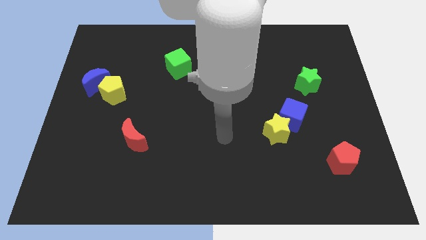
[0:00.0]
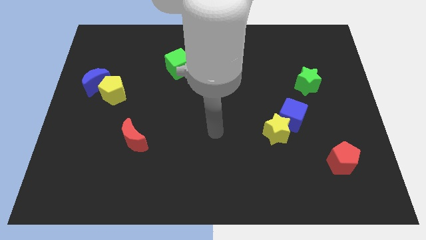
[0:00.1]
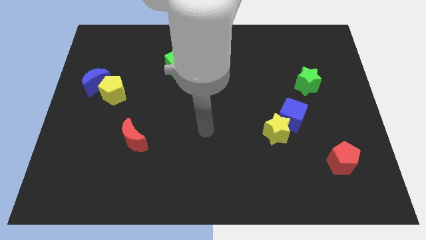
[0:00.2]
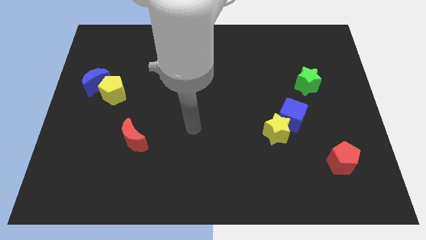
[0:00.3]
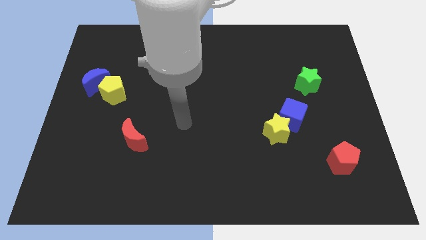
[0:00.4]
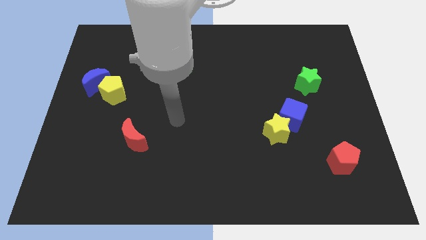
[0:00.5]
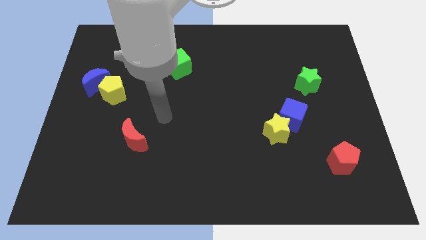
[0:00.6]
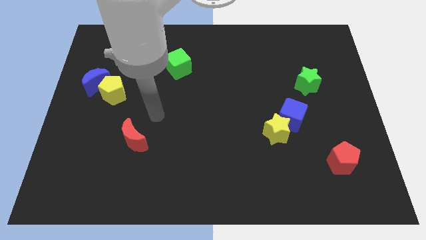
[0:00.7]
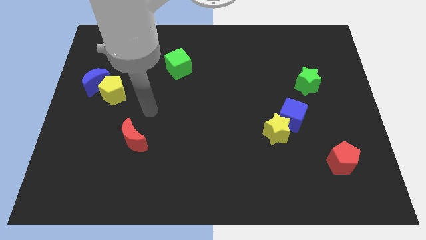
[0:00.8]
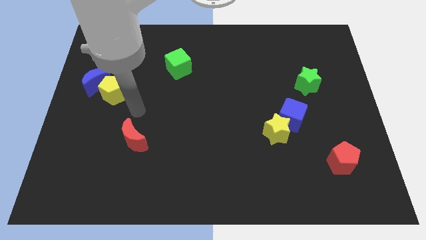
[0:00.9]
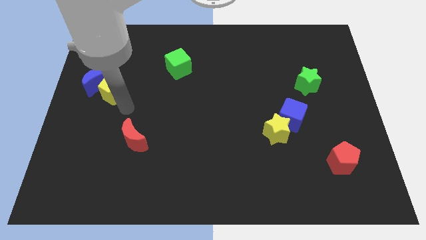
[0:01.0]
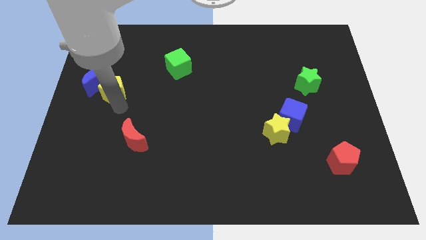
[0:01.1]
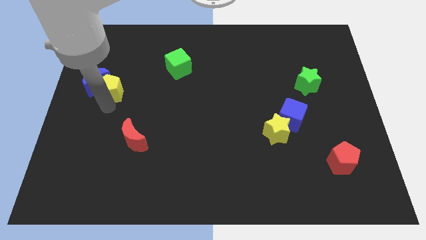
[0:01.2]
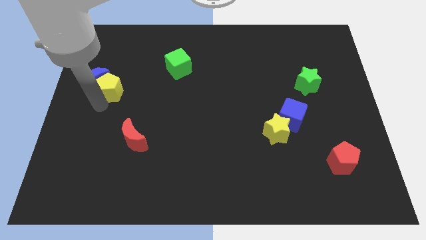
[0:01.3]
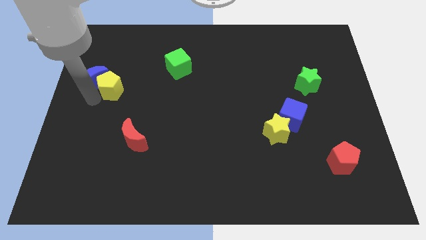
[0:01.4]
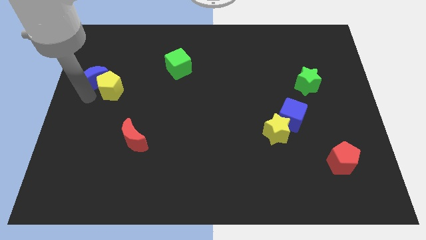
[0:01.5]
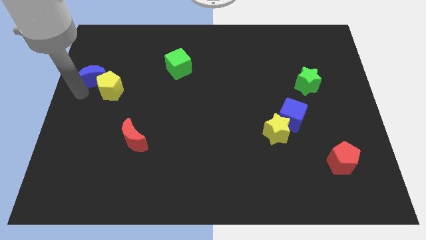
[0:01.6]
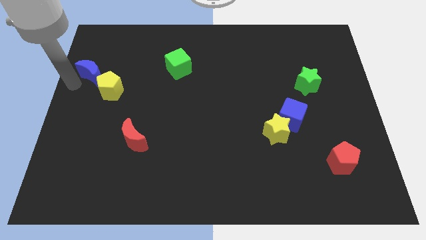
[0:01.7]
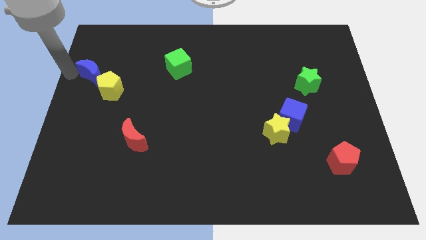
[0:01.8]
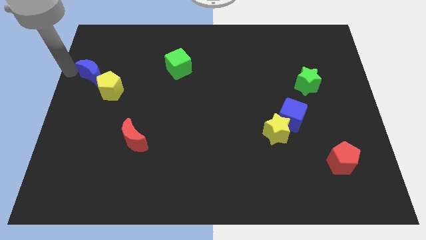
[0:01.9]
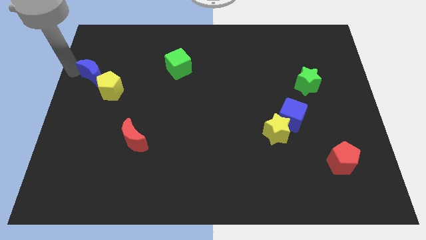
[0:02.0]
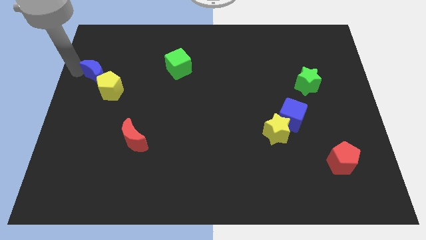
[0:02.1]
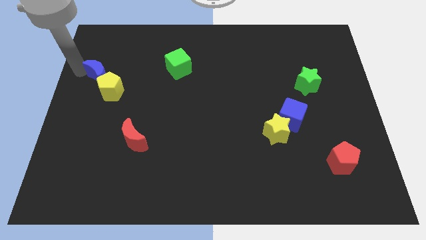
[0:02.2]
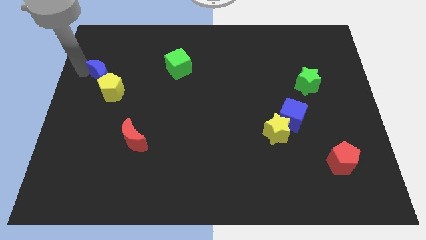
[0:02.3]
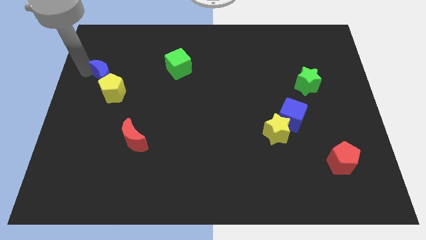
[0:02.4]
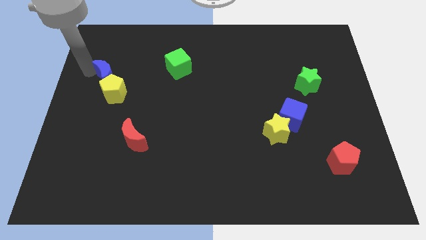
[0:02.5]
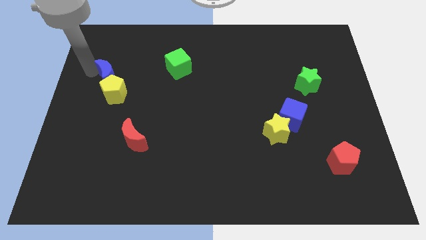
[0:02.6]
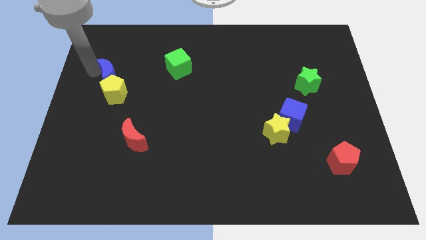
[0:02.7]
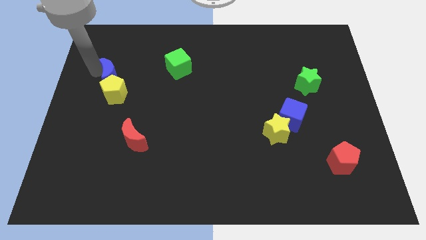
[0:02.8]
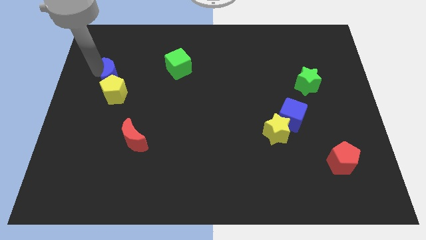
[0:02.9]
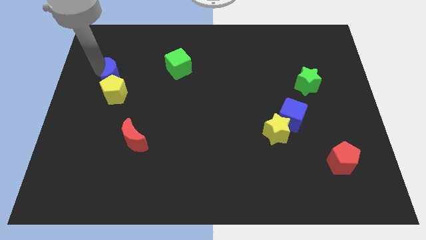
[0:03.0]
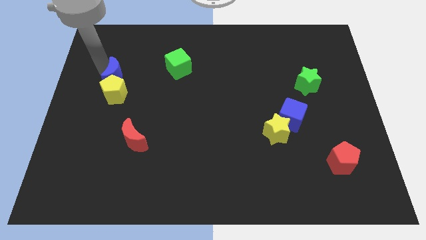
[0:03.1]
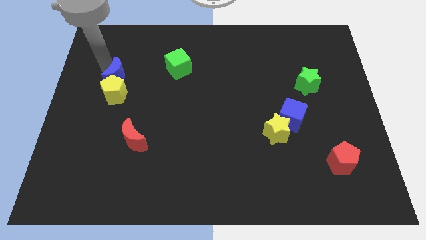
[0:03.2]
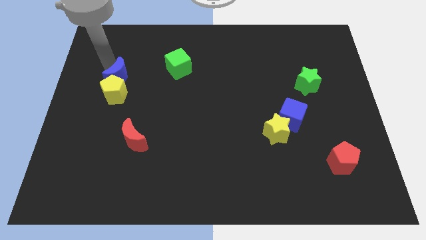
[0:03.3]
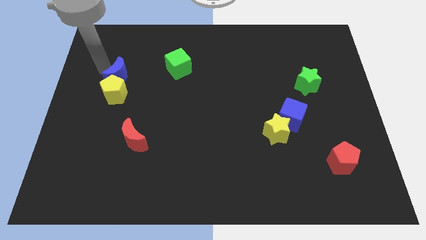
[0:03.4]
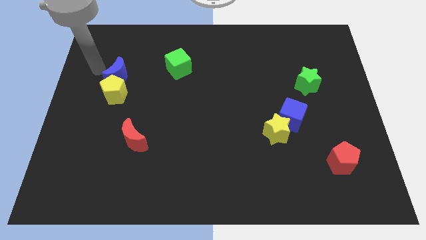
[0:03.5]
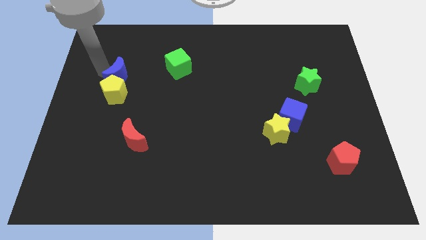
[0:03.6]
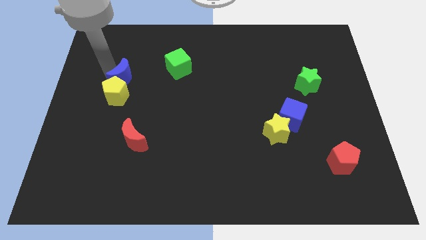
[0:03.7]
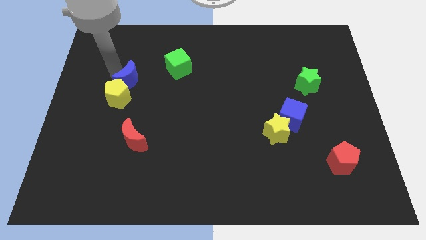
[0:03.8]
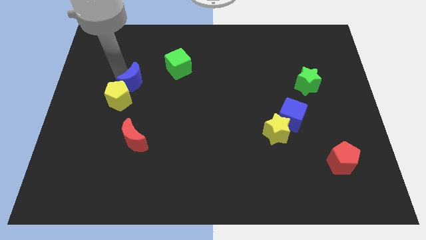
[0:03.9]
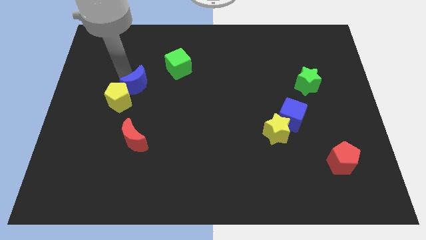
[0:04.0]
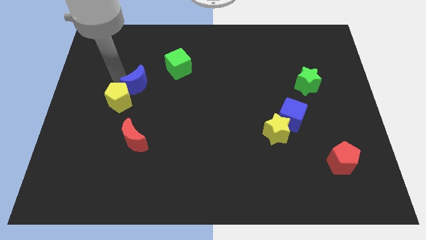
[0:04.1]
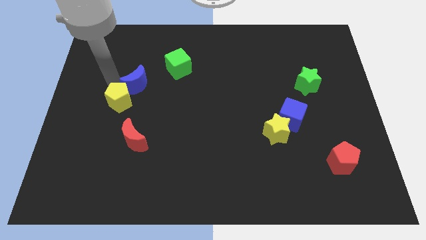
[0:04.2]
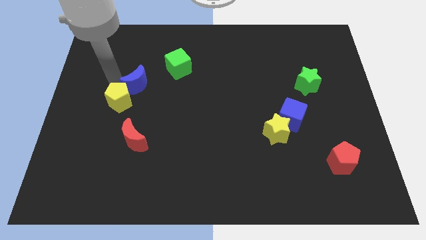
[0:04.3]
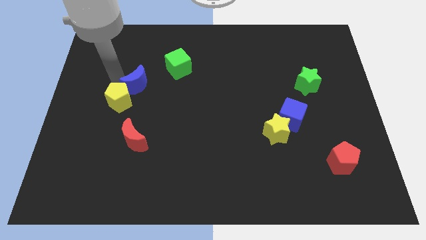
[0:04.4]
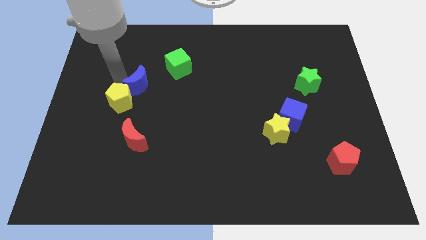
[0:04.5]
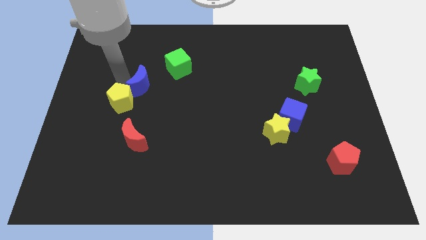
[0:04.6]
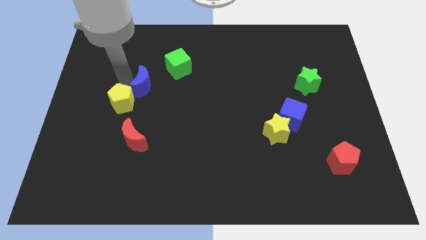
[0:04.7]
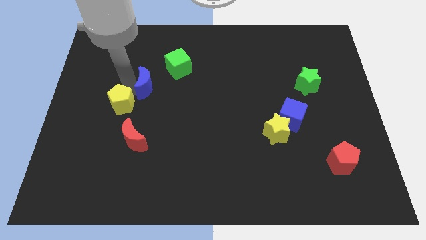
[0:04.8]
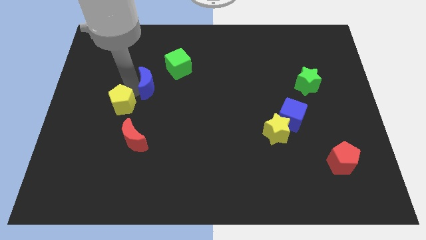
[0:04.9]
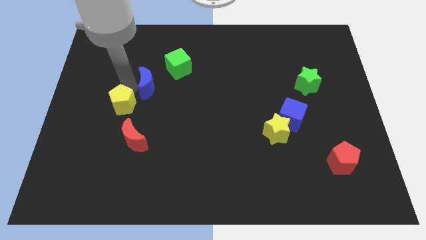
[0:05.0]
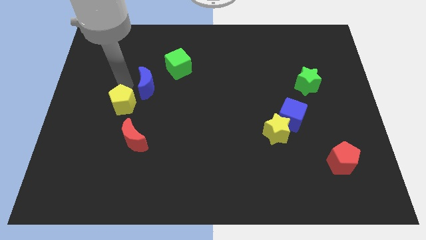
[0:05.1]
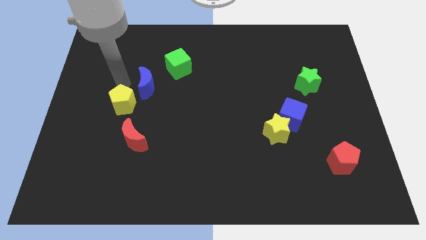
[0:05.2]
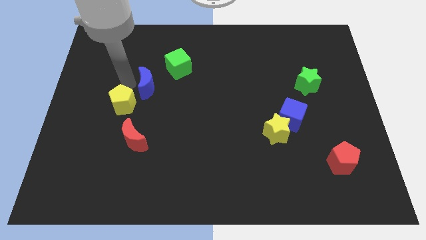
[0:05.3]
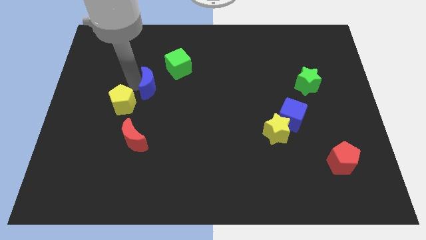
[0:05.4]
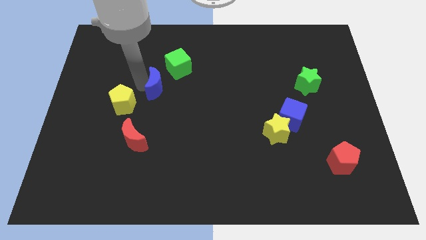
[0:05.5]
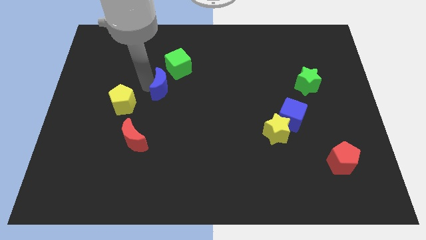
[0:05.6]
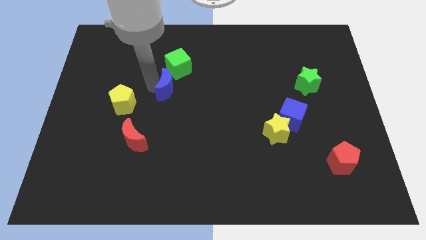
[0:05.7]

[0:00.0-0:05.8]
slide the blue moon to the center of the board

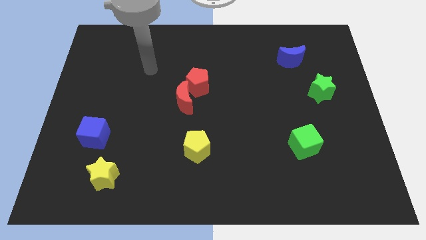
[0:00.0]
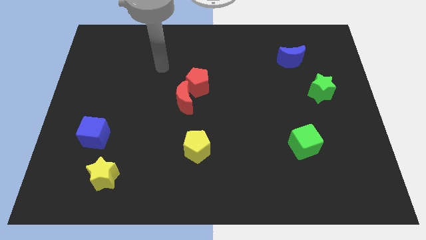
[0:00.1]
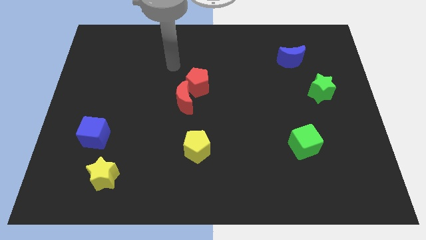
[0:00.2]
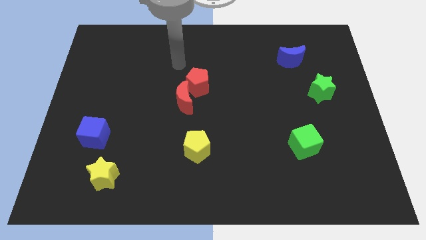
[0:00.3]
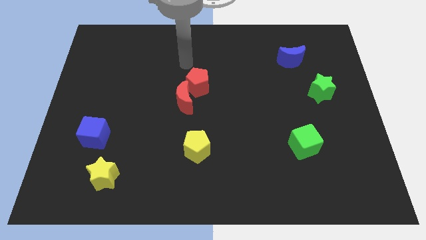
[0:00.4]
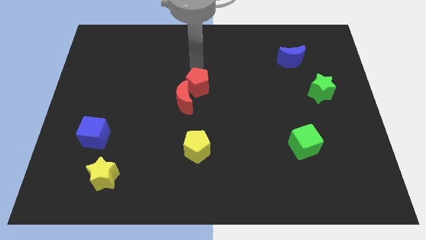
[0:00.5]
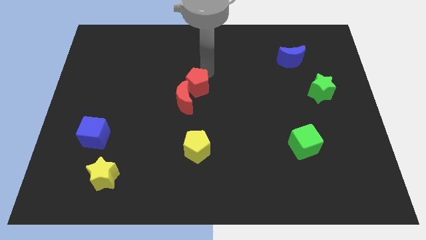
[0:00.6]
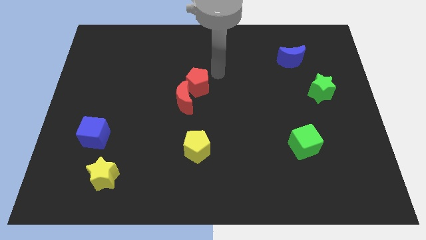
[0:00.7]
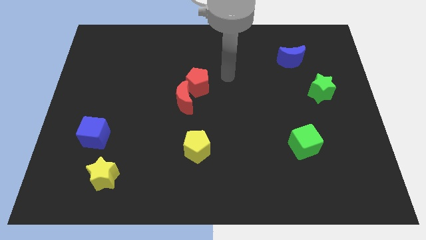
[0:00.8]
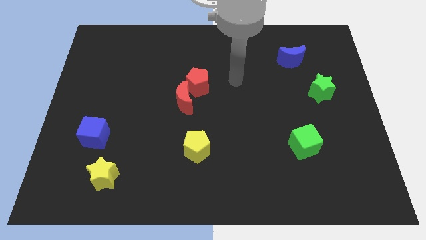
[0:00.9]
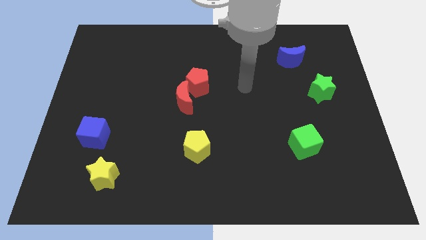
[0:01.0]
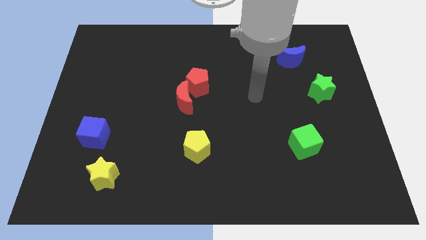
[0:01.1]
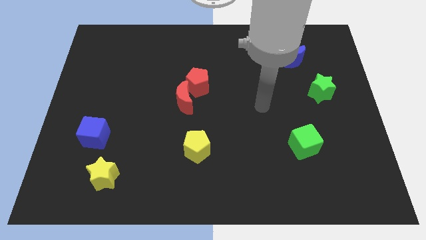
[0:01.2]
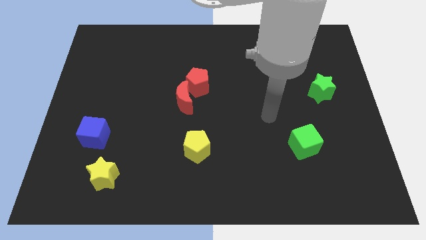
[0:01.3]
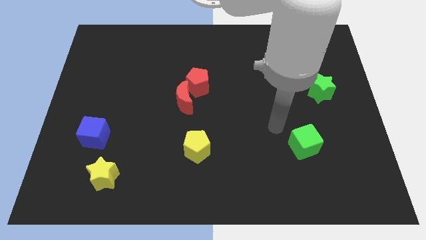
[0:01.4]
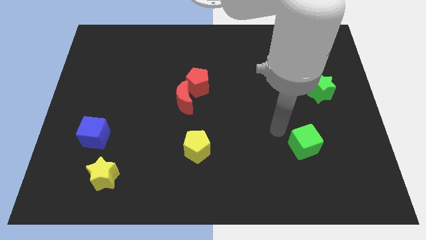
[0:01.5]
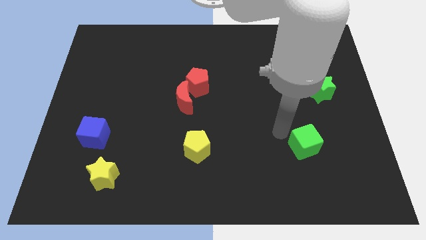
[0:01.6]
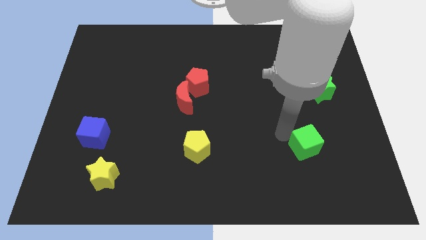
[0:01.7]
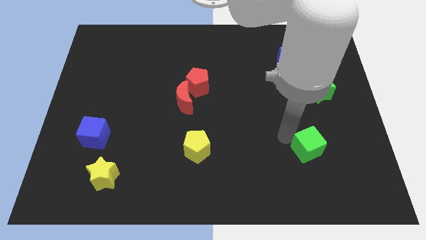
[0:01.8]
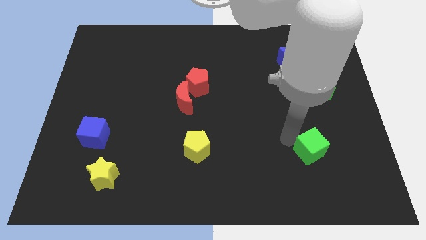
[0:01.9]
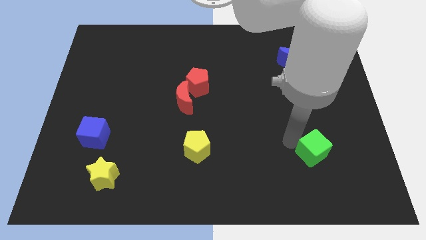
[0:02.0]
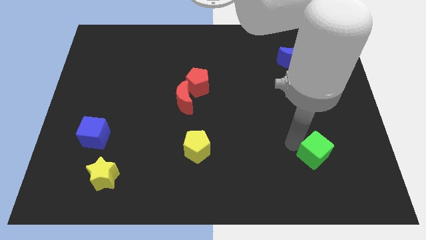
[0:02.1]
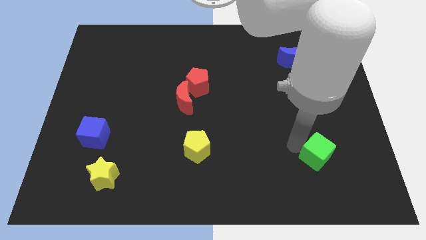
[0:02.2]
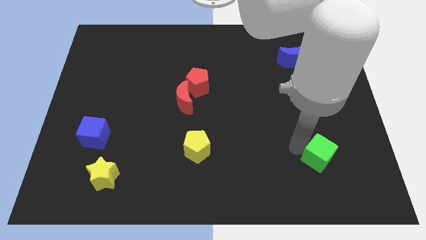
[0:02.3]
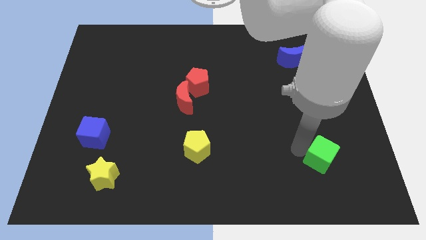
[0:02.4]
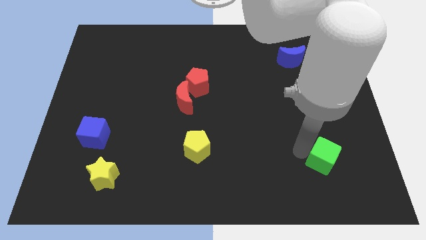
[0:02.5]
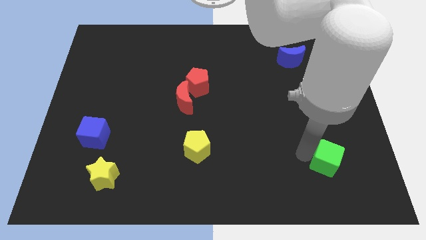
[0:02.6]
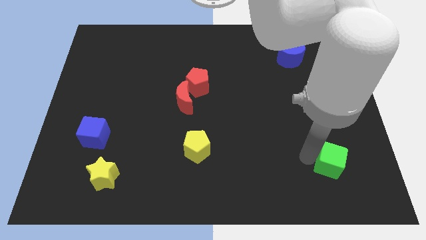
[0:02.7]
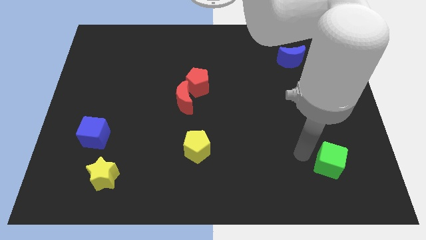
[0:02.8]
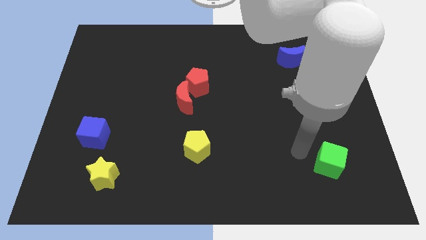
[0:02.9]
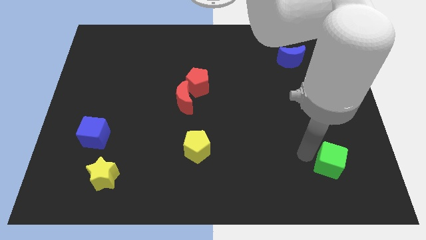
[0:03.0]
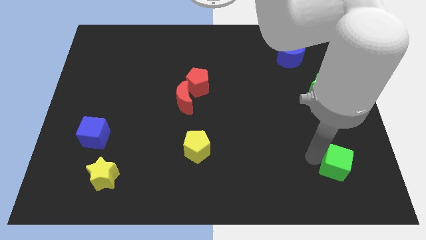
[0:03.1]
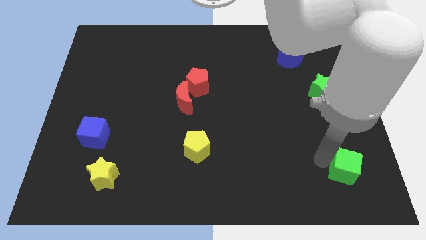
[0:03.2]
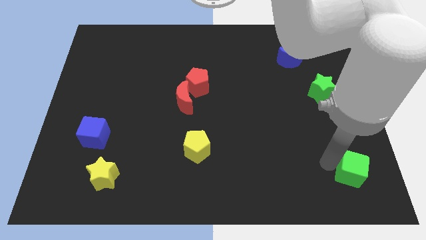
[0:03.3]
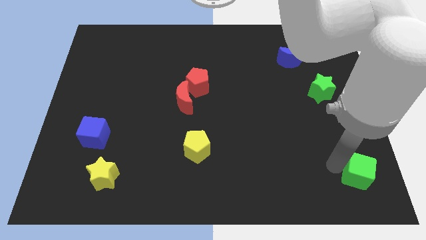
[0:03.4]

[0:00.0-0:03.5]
slide the green cube to the lower right corner
